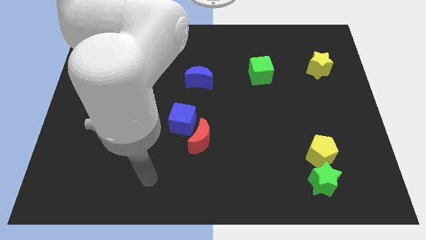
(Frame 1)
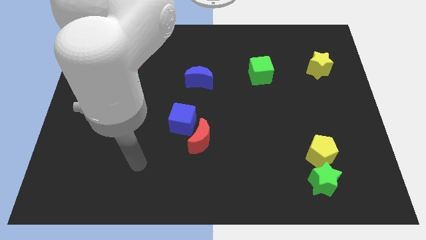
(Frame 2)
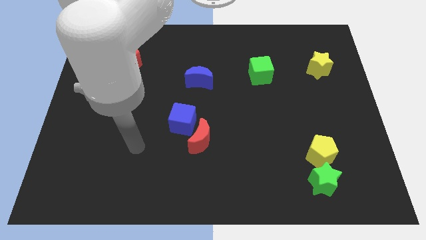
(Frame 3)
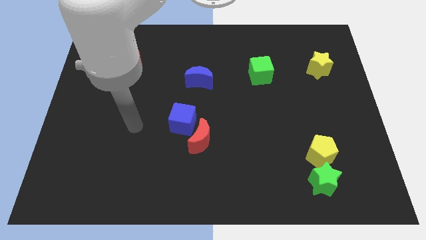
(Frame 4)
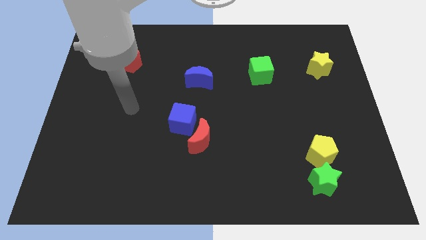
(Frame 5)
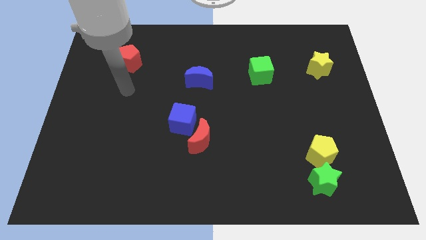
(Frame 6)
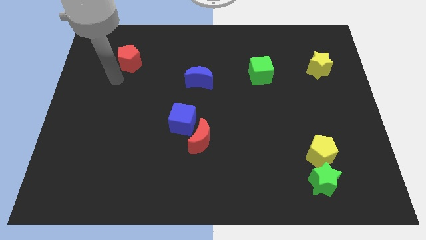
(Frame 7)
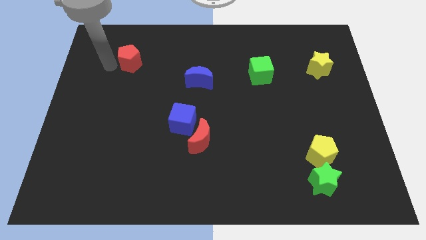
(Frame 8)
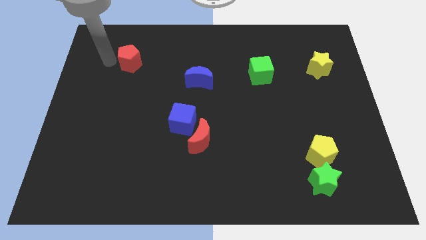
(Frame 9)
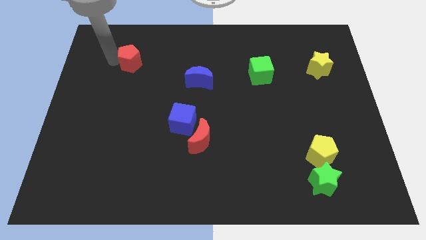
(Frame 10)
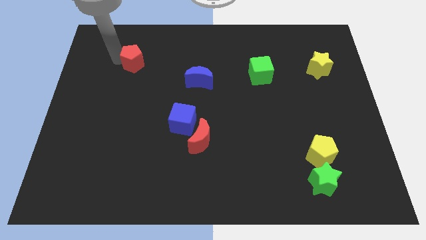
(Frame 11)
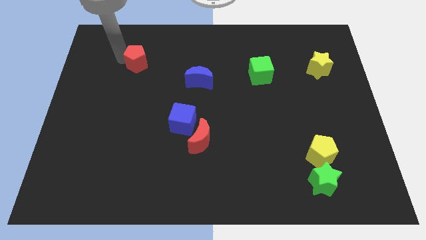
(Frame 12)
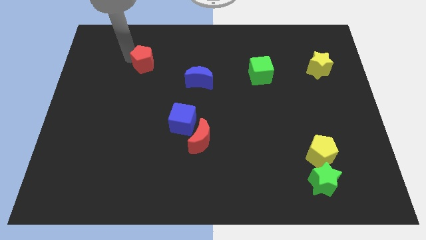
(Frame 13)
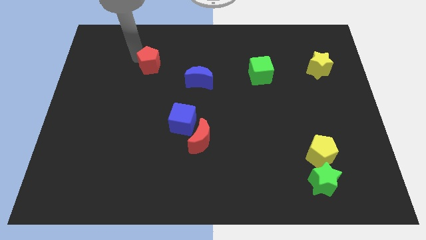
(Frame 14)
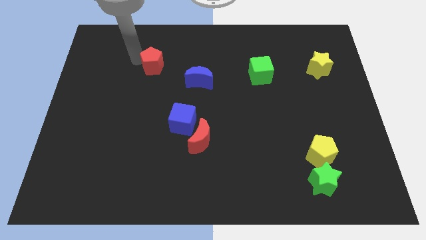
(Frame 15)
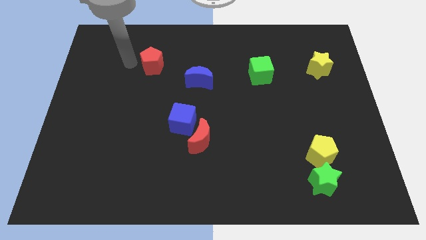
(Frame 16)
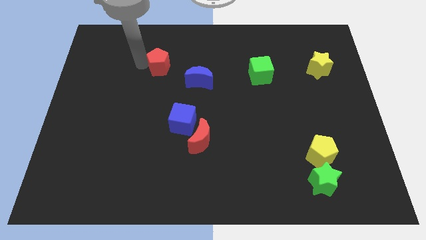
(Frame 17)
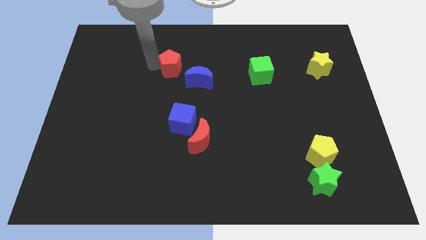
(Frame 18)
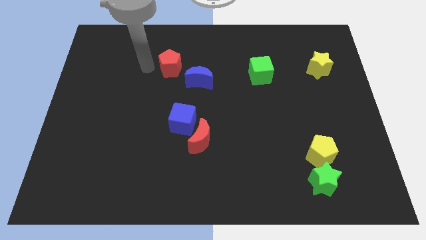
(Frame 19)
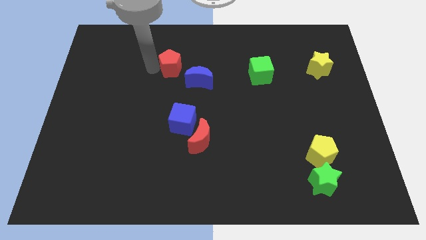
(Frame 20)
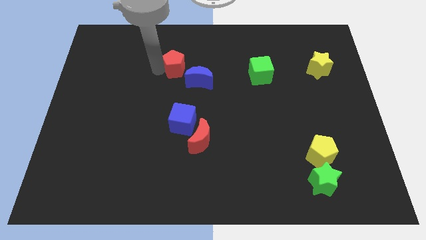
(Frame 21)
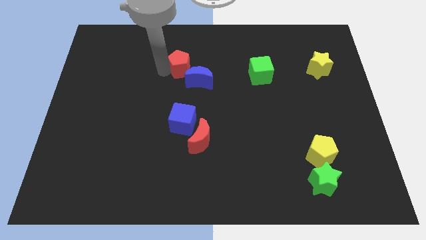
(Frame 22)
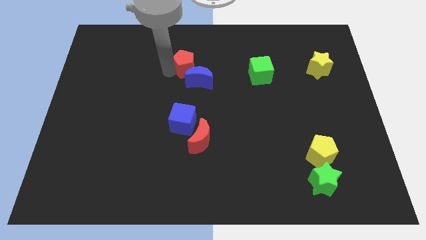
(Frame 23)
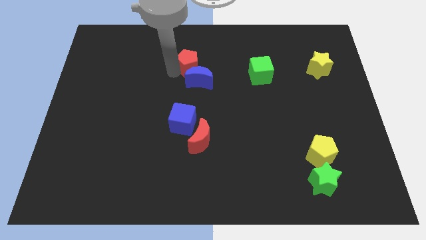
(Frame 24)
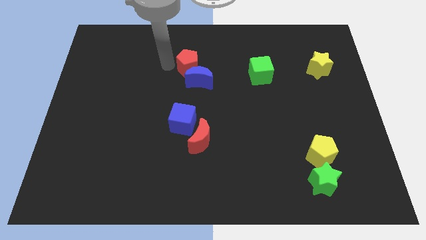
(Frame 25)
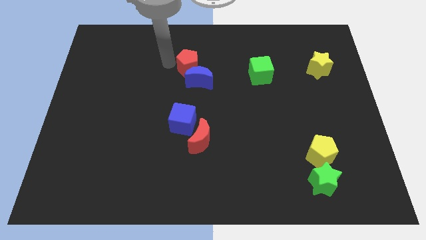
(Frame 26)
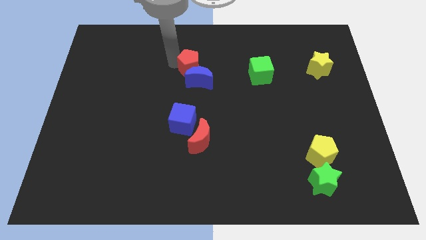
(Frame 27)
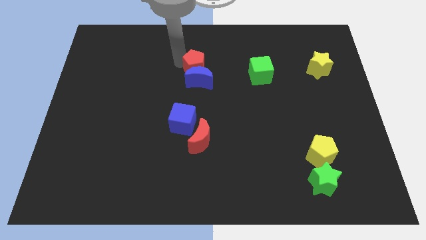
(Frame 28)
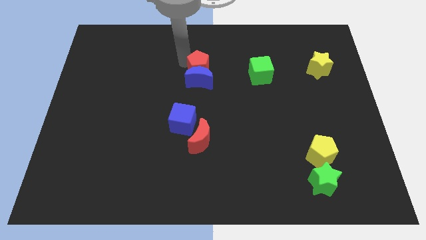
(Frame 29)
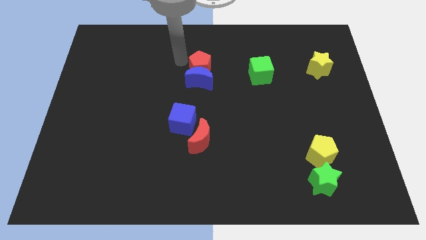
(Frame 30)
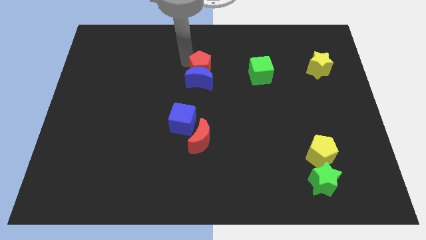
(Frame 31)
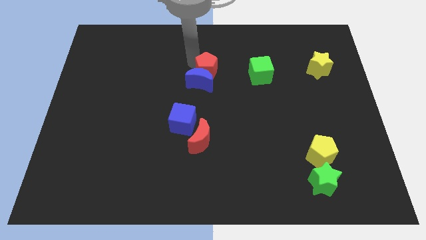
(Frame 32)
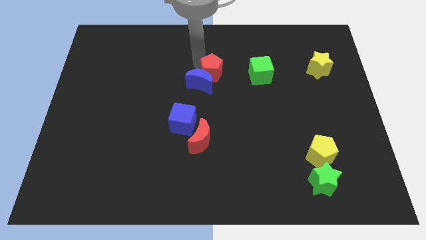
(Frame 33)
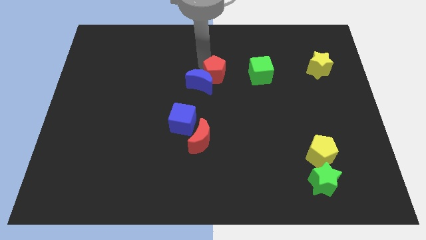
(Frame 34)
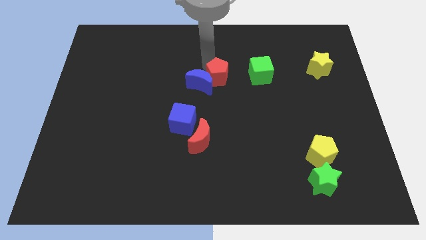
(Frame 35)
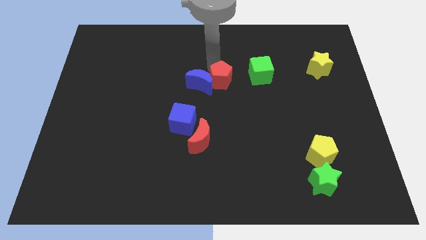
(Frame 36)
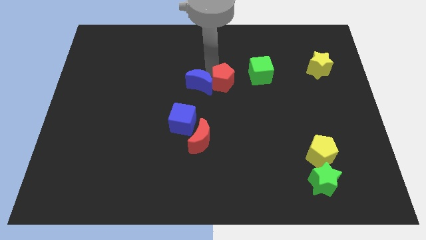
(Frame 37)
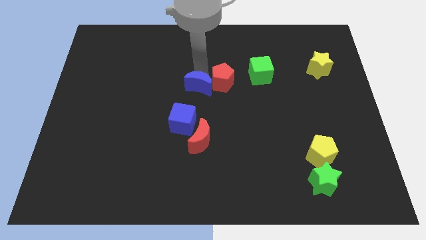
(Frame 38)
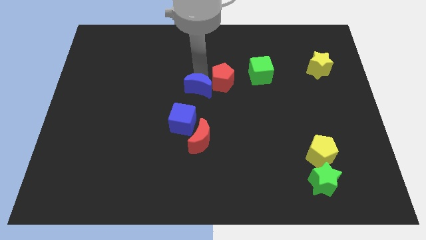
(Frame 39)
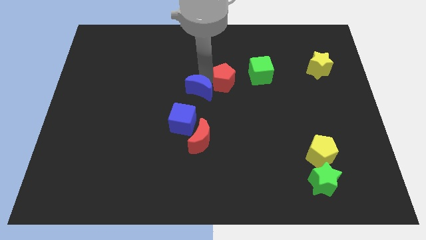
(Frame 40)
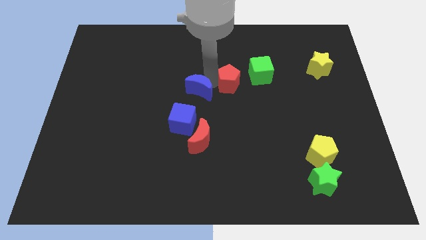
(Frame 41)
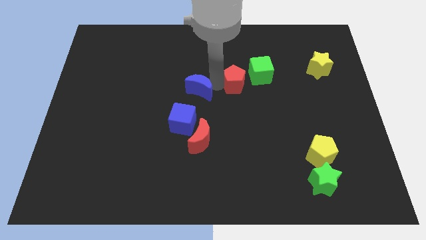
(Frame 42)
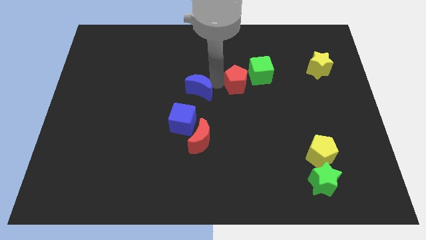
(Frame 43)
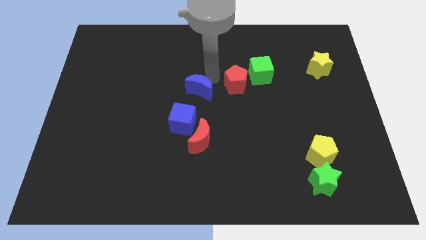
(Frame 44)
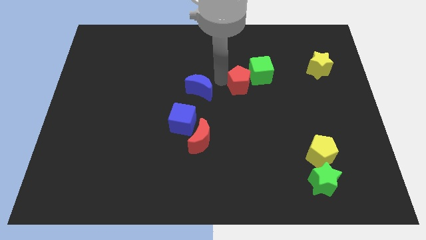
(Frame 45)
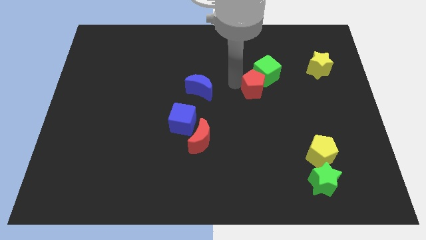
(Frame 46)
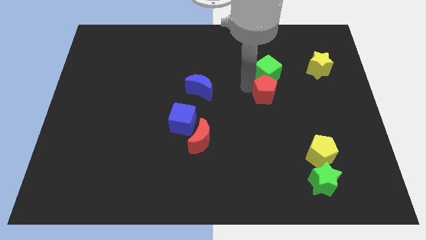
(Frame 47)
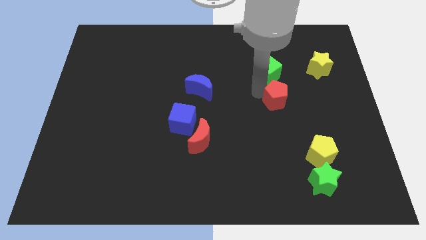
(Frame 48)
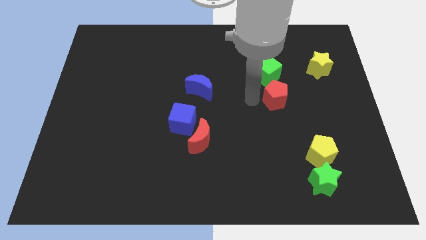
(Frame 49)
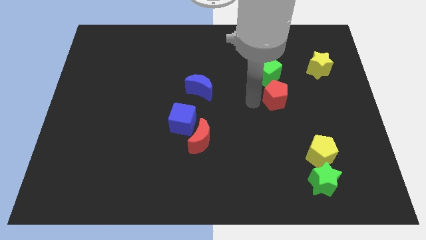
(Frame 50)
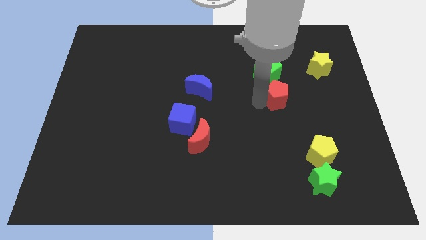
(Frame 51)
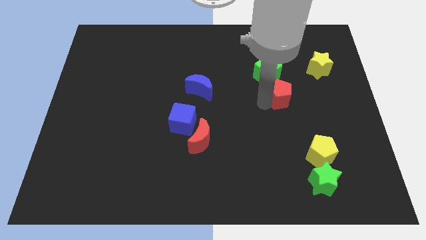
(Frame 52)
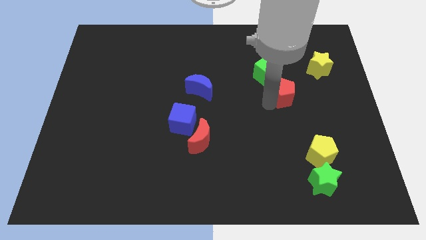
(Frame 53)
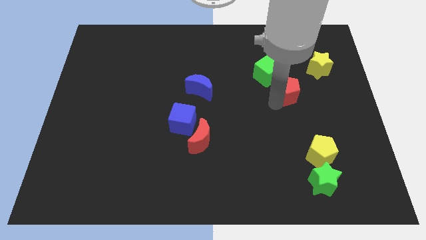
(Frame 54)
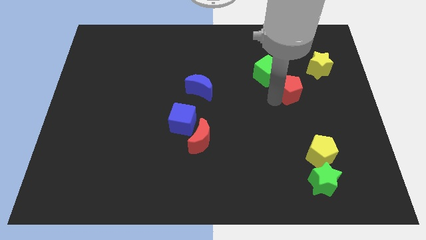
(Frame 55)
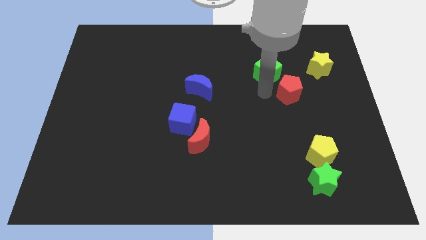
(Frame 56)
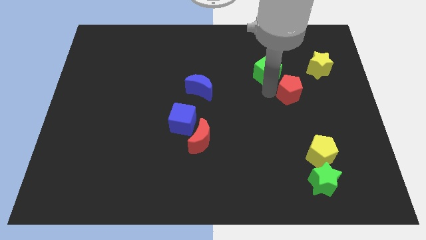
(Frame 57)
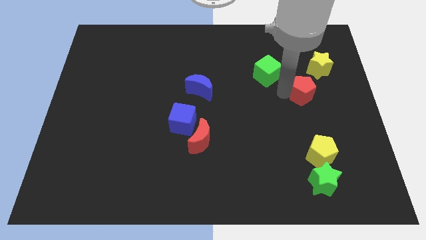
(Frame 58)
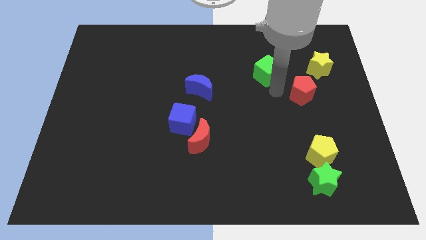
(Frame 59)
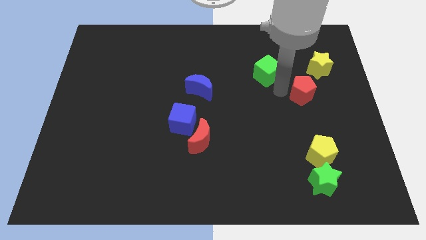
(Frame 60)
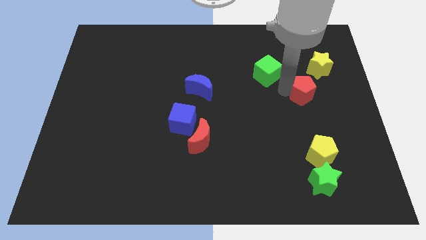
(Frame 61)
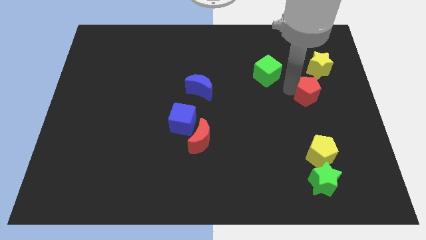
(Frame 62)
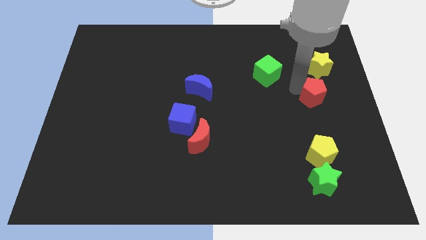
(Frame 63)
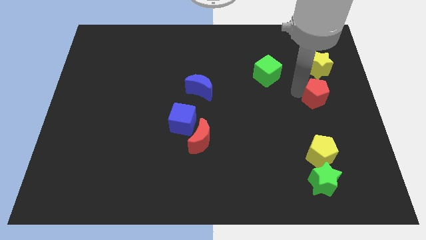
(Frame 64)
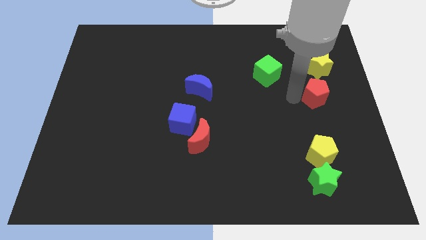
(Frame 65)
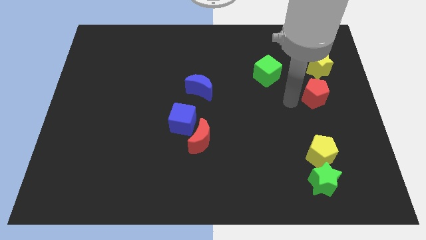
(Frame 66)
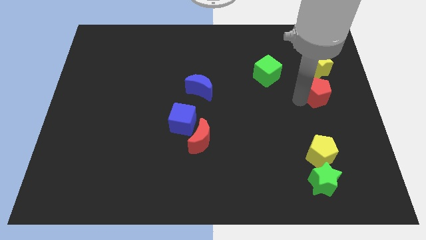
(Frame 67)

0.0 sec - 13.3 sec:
slide the red pentagon to the right side of the board
